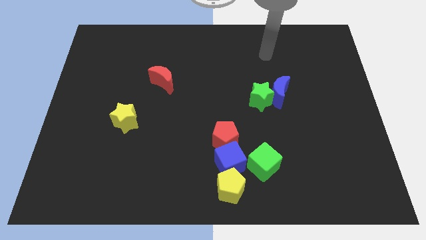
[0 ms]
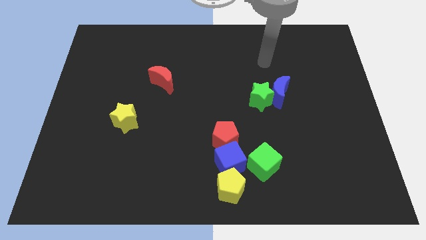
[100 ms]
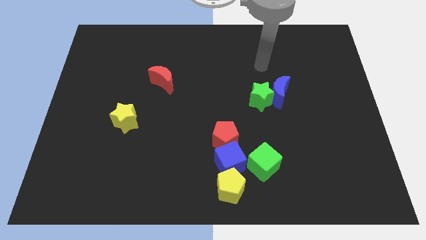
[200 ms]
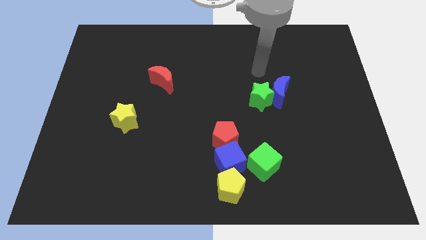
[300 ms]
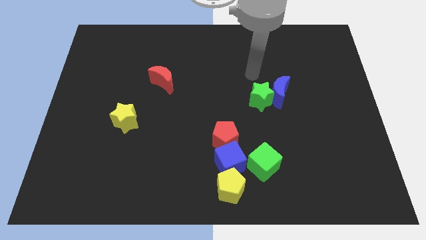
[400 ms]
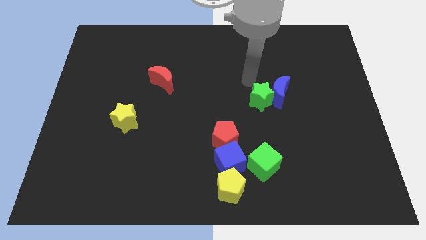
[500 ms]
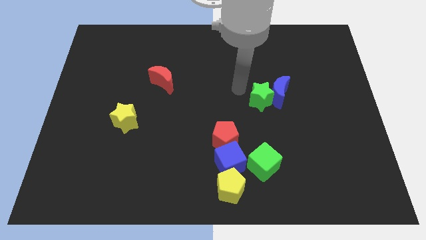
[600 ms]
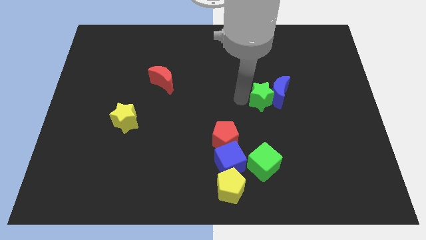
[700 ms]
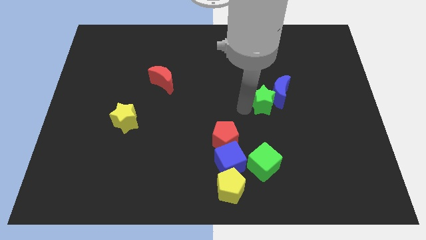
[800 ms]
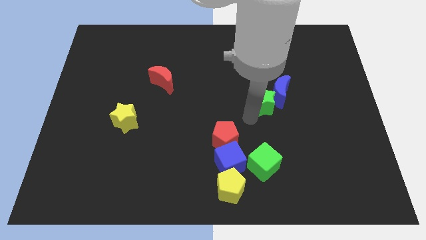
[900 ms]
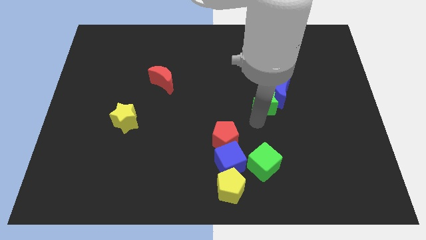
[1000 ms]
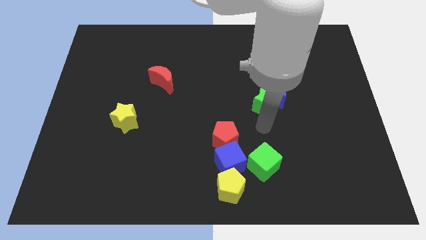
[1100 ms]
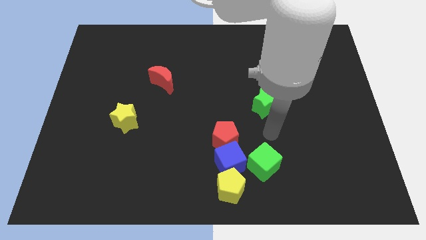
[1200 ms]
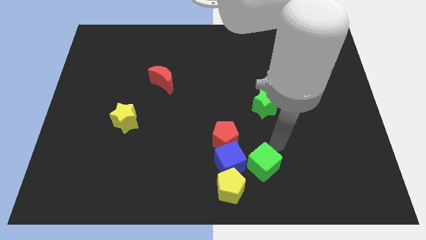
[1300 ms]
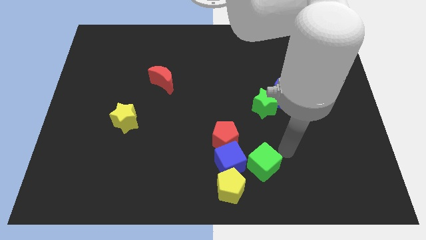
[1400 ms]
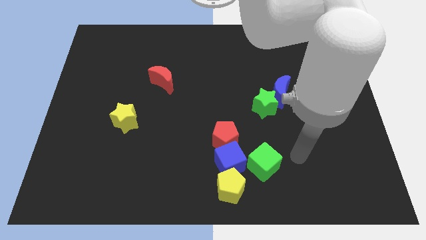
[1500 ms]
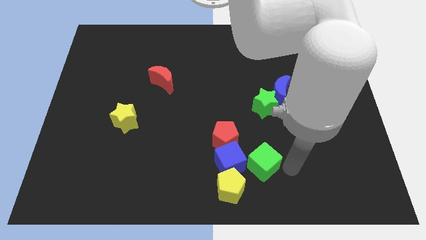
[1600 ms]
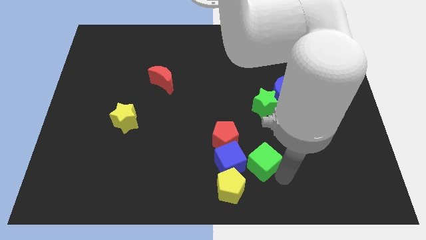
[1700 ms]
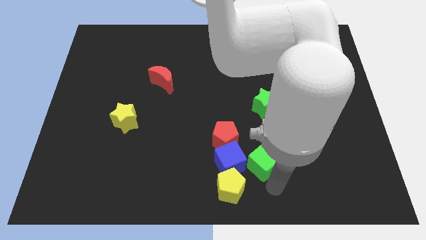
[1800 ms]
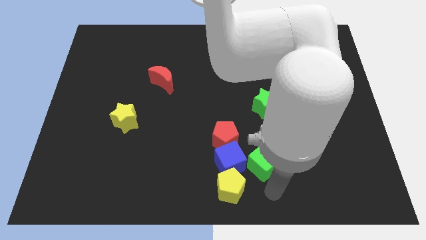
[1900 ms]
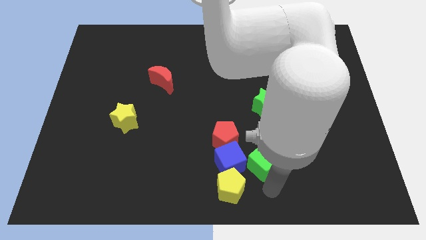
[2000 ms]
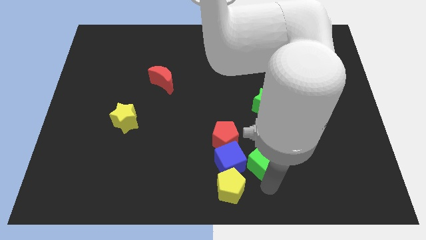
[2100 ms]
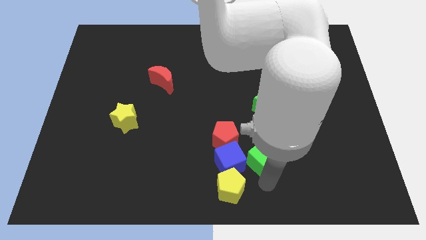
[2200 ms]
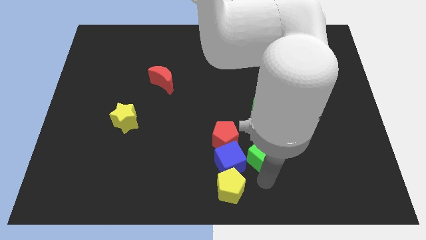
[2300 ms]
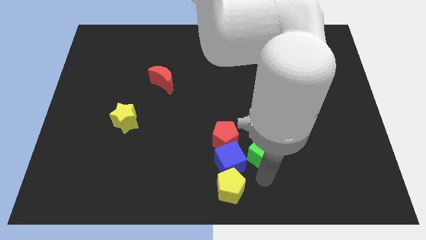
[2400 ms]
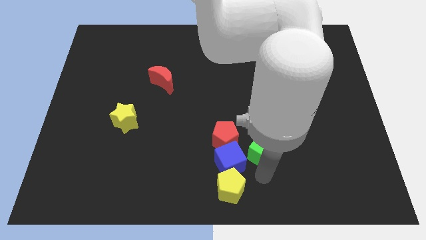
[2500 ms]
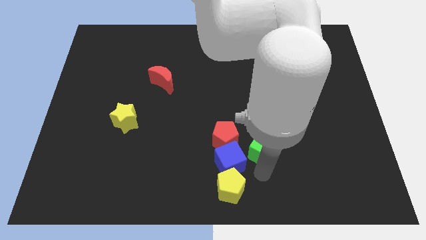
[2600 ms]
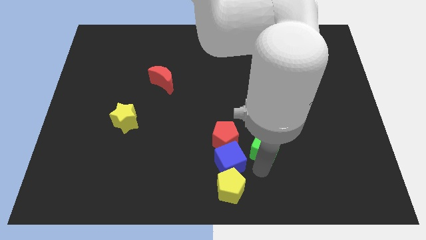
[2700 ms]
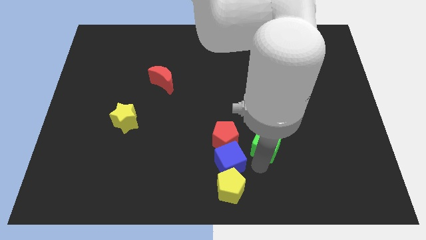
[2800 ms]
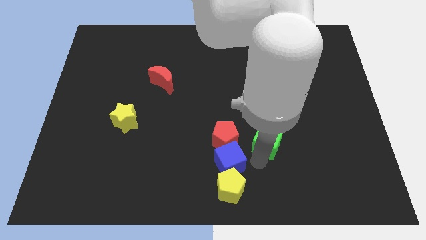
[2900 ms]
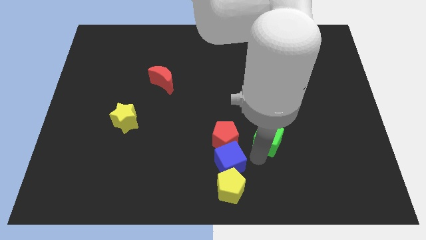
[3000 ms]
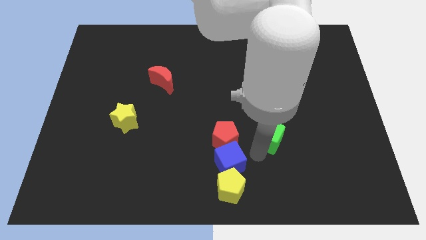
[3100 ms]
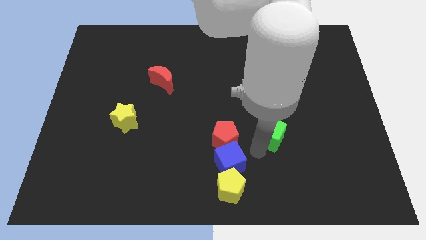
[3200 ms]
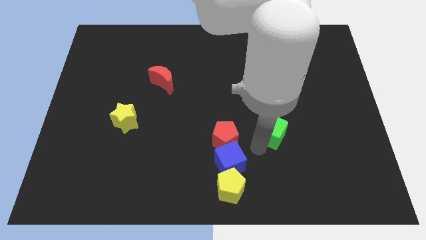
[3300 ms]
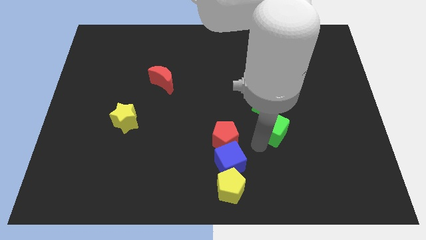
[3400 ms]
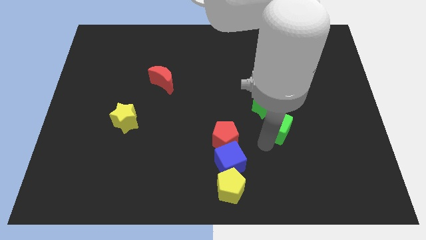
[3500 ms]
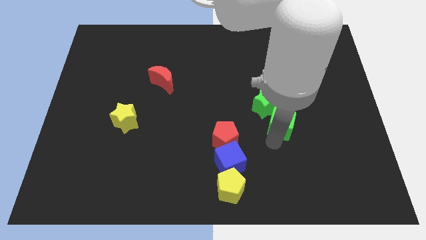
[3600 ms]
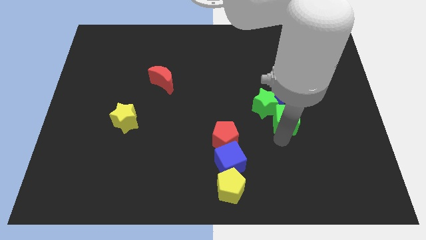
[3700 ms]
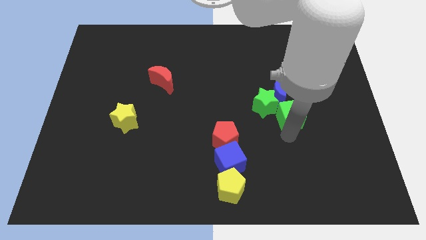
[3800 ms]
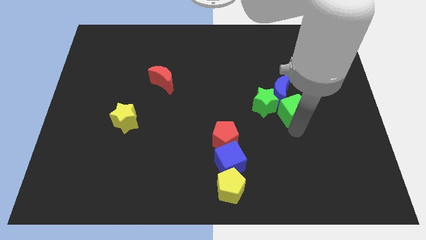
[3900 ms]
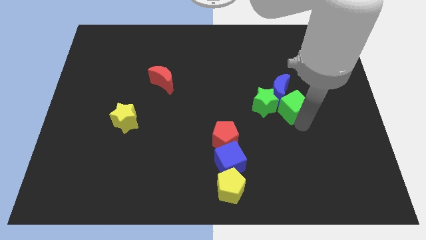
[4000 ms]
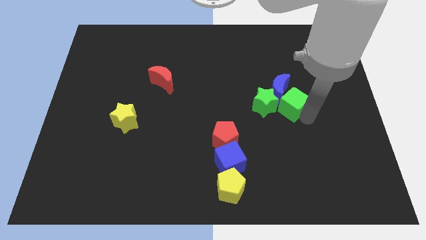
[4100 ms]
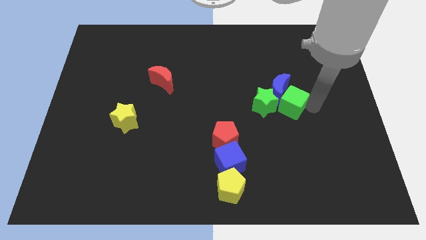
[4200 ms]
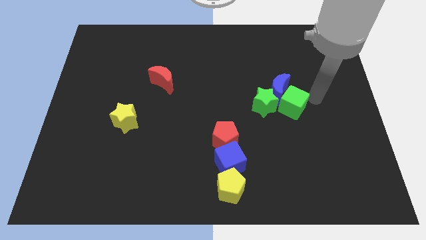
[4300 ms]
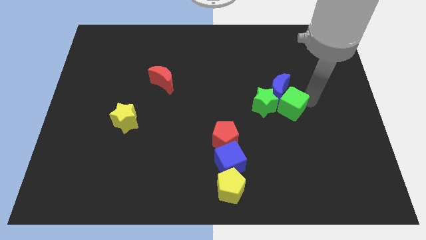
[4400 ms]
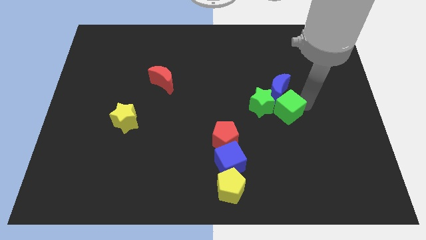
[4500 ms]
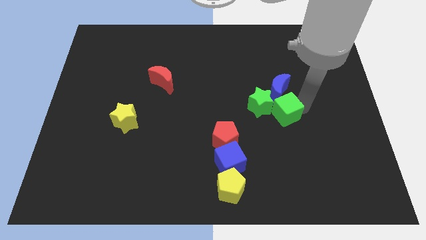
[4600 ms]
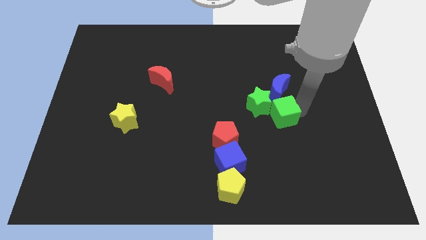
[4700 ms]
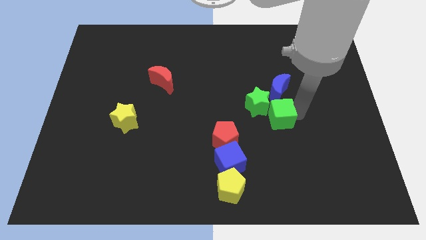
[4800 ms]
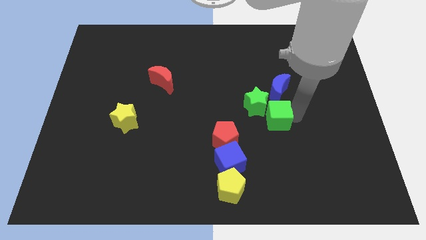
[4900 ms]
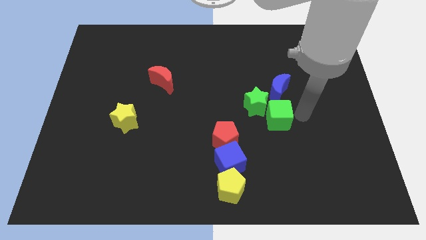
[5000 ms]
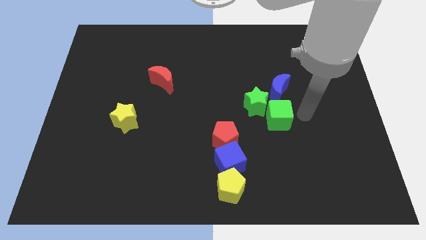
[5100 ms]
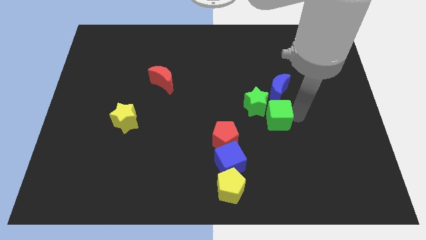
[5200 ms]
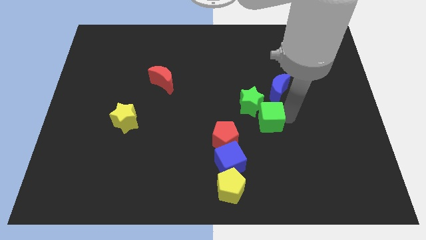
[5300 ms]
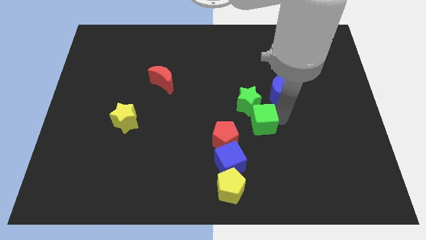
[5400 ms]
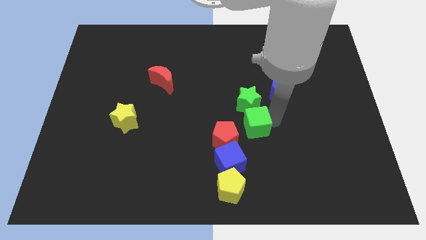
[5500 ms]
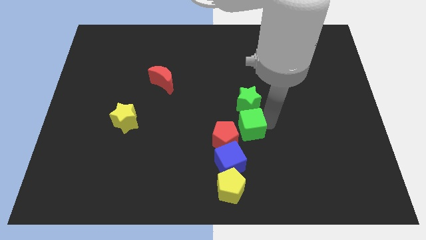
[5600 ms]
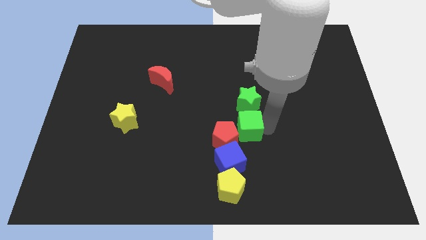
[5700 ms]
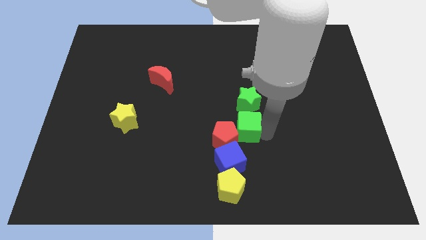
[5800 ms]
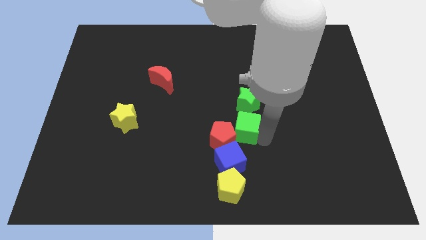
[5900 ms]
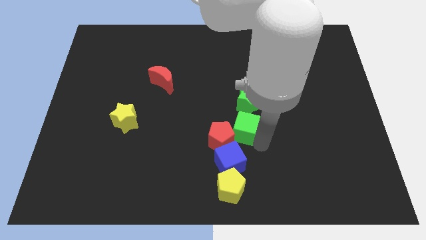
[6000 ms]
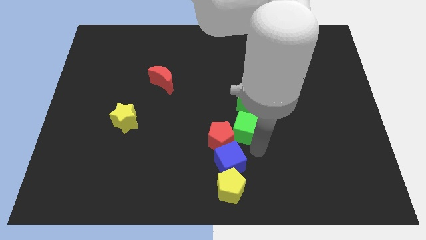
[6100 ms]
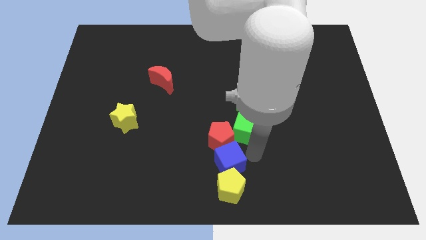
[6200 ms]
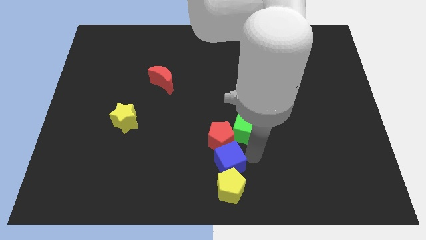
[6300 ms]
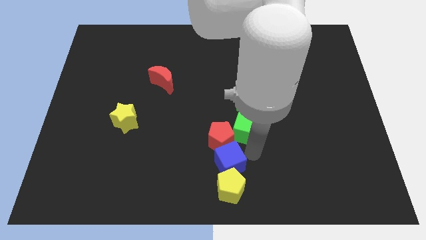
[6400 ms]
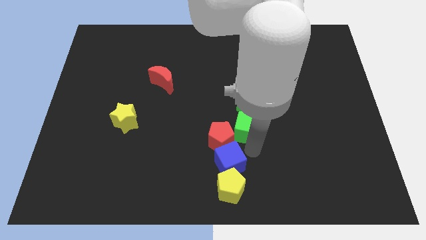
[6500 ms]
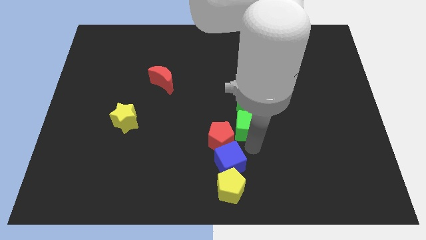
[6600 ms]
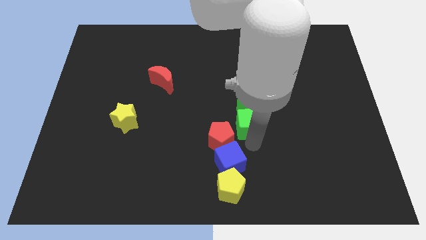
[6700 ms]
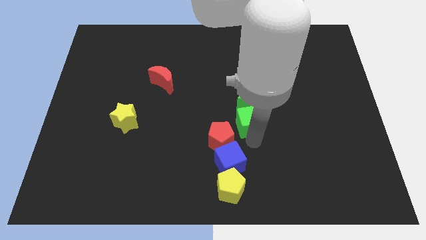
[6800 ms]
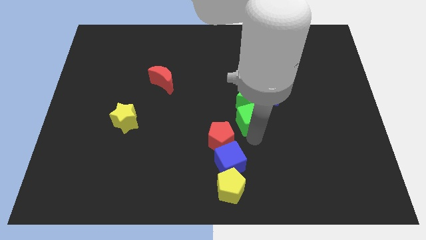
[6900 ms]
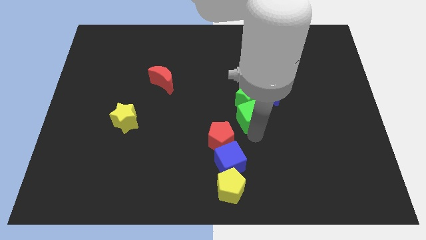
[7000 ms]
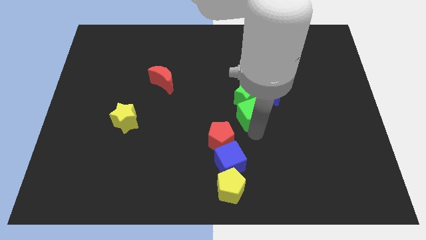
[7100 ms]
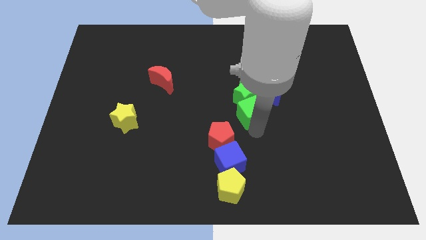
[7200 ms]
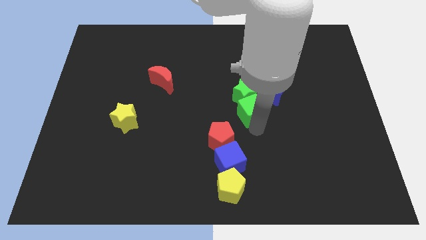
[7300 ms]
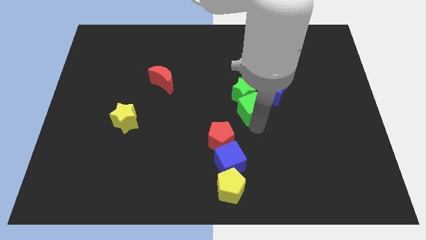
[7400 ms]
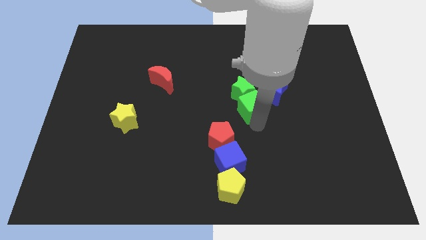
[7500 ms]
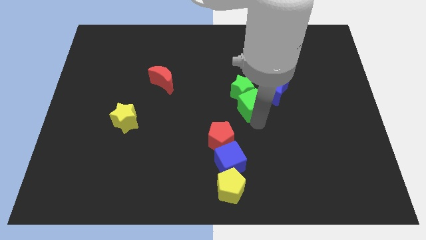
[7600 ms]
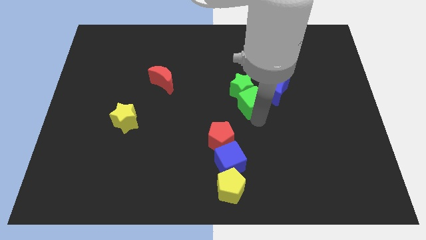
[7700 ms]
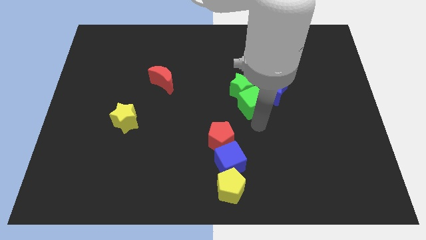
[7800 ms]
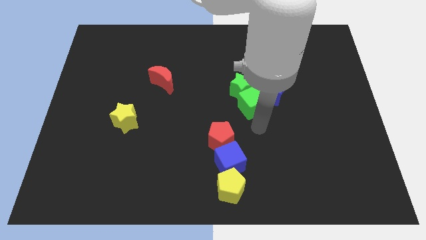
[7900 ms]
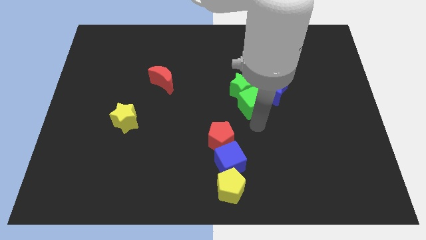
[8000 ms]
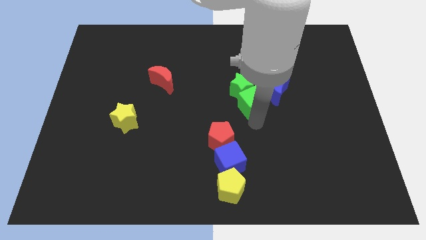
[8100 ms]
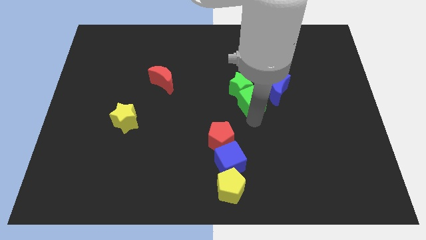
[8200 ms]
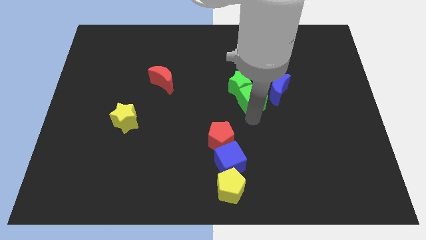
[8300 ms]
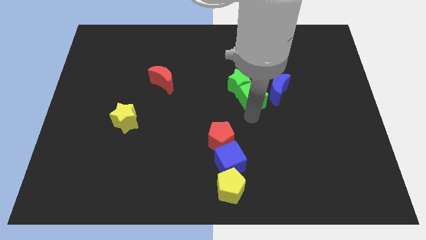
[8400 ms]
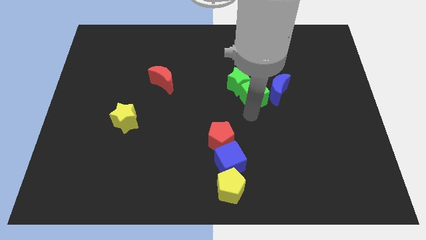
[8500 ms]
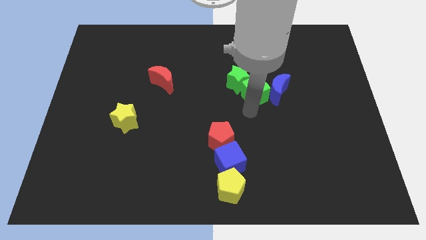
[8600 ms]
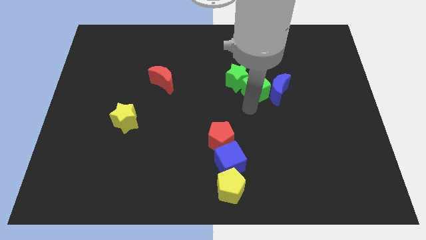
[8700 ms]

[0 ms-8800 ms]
push the green cube up
